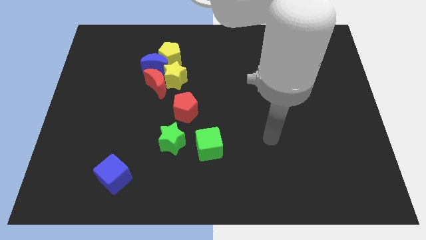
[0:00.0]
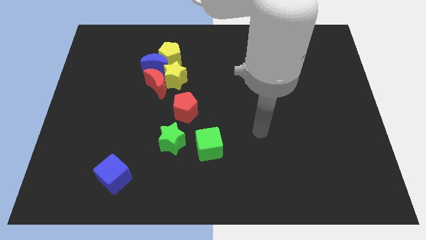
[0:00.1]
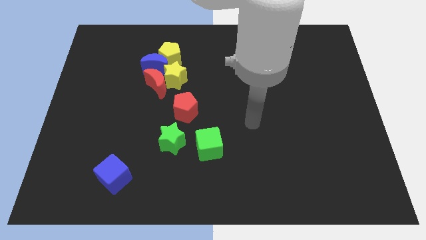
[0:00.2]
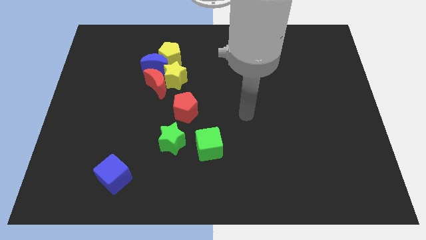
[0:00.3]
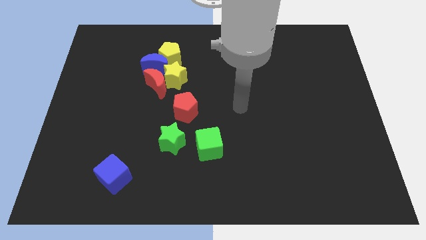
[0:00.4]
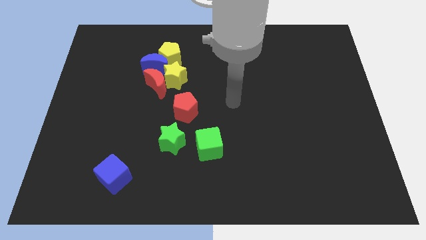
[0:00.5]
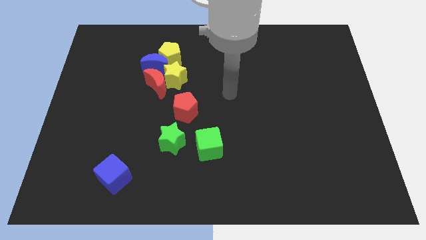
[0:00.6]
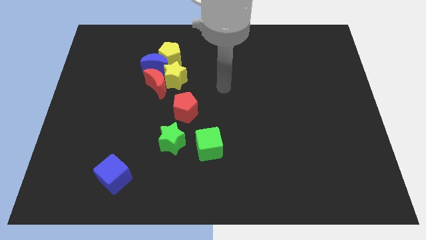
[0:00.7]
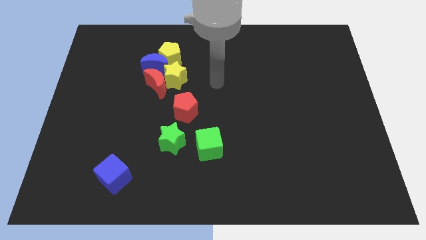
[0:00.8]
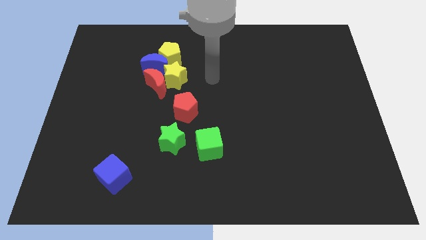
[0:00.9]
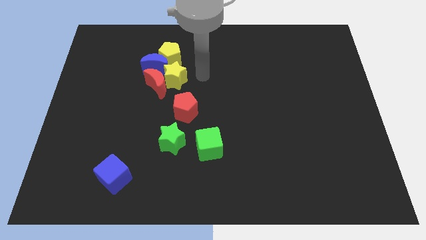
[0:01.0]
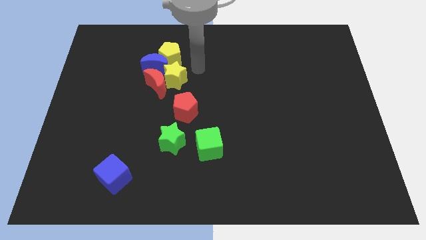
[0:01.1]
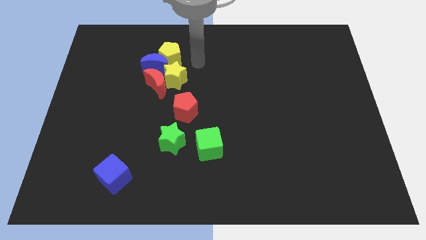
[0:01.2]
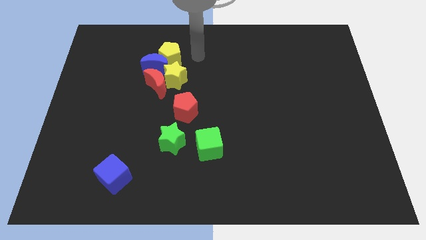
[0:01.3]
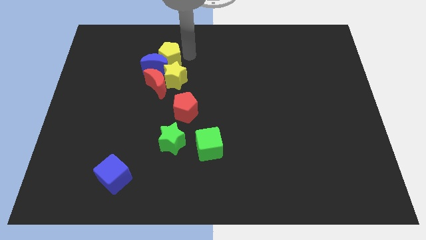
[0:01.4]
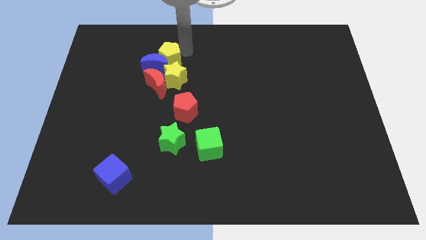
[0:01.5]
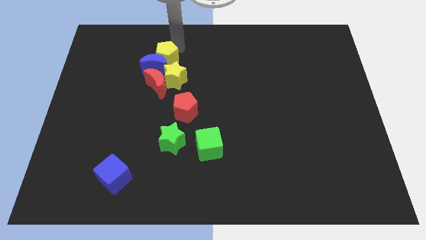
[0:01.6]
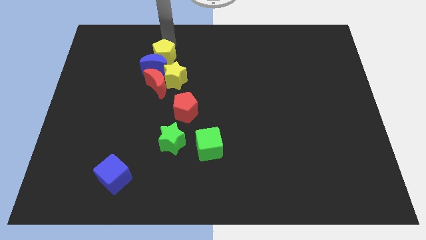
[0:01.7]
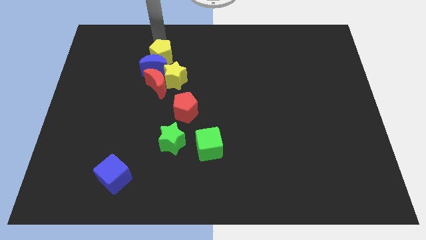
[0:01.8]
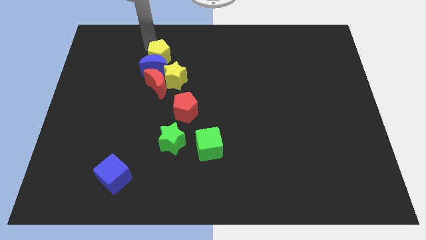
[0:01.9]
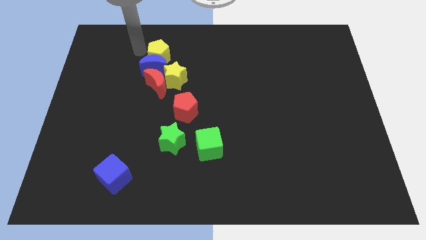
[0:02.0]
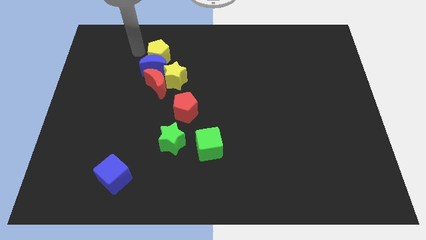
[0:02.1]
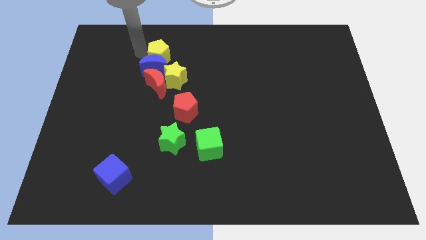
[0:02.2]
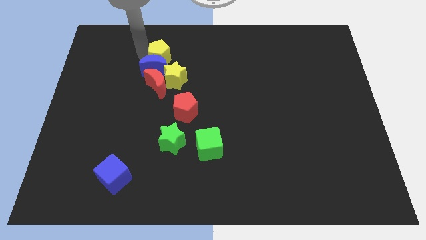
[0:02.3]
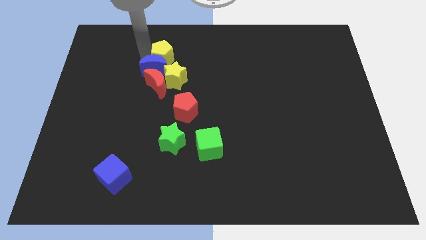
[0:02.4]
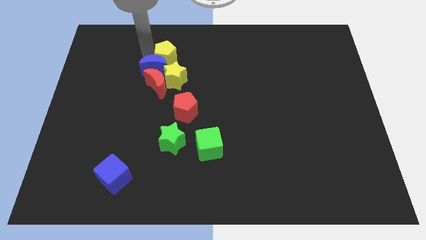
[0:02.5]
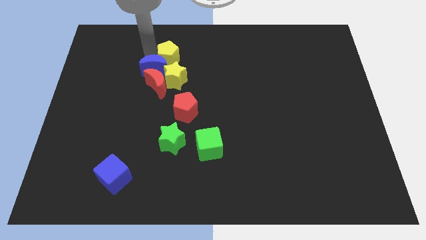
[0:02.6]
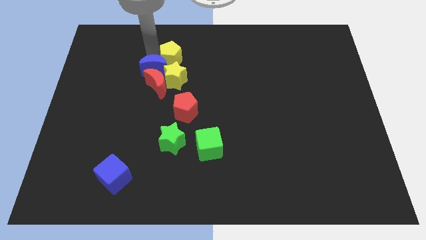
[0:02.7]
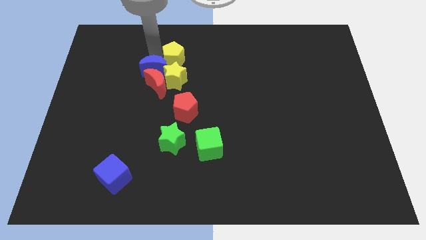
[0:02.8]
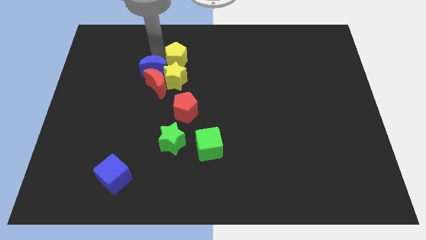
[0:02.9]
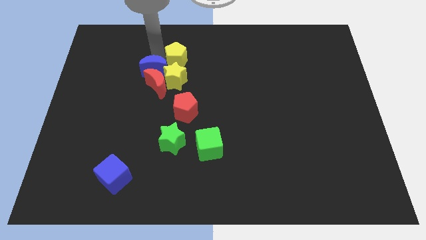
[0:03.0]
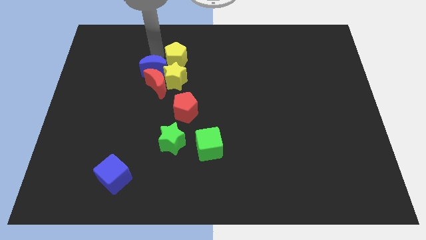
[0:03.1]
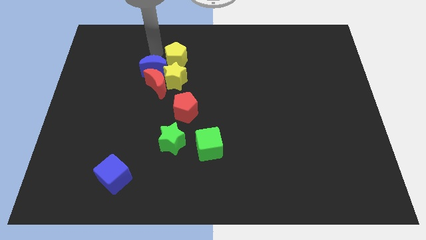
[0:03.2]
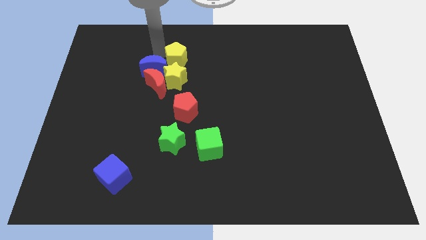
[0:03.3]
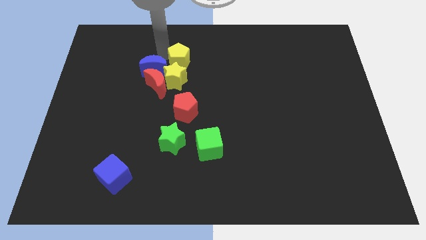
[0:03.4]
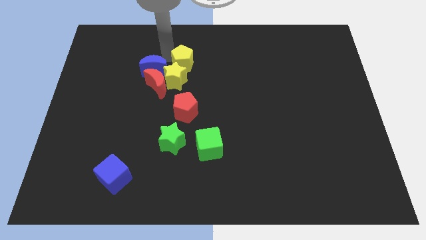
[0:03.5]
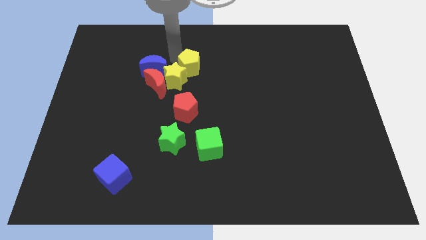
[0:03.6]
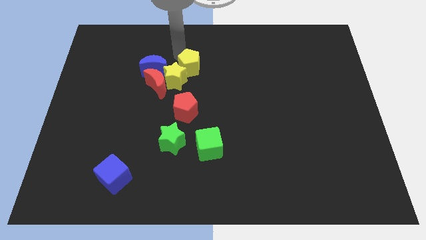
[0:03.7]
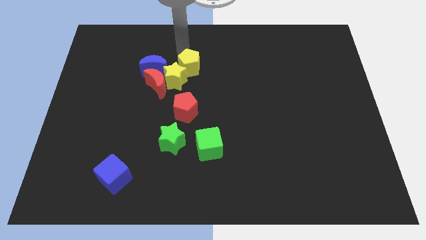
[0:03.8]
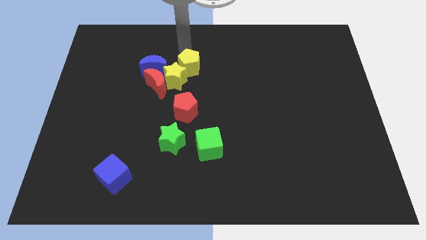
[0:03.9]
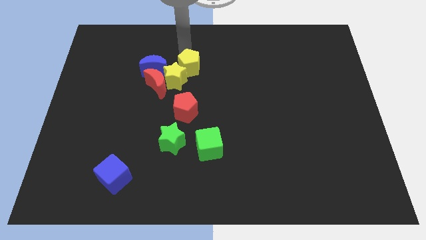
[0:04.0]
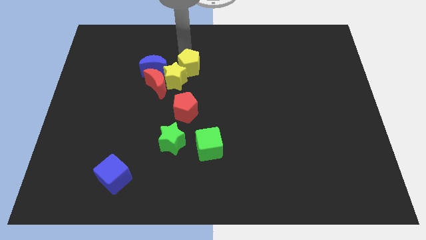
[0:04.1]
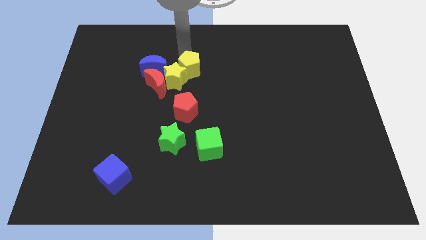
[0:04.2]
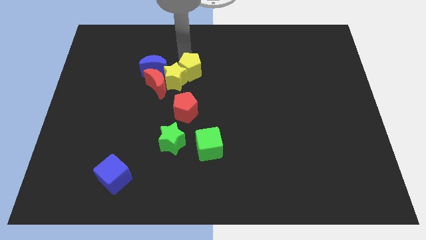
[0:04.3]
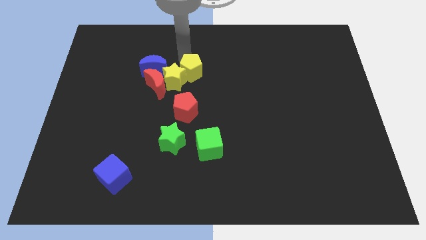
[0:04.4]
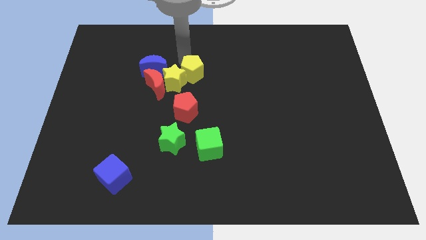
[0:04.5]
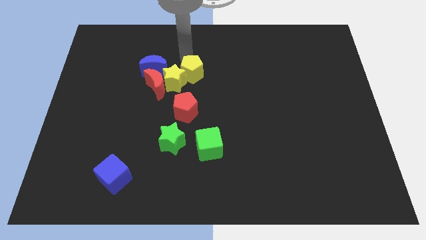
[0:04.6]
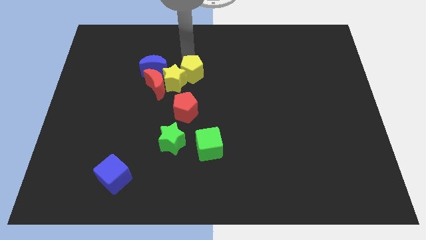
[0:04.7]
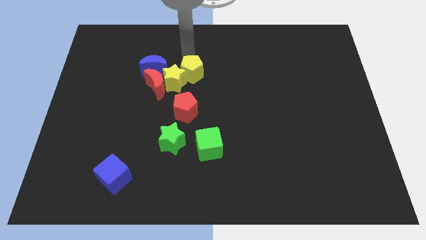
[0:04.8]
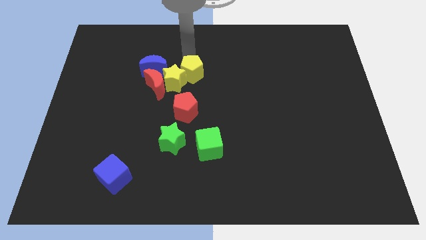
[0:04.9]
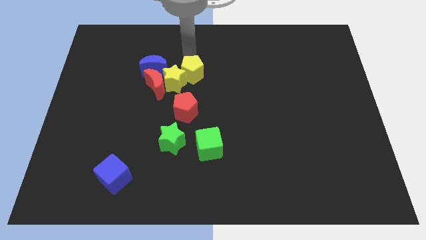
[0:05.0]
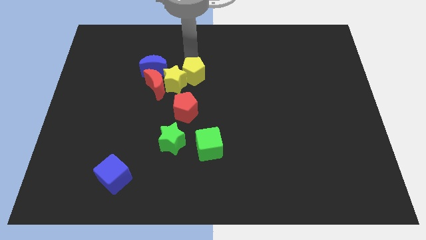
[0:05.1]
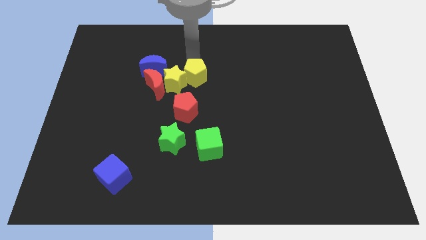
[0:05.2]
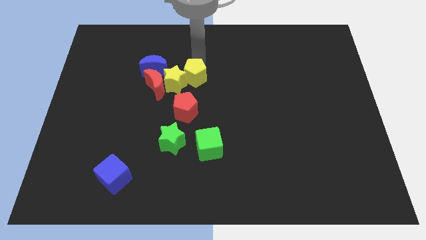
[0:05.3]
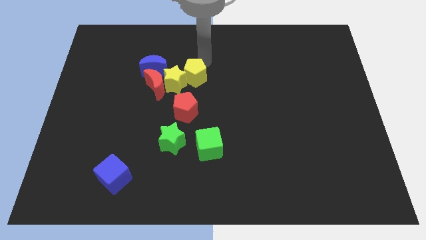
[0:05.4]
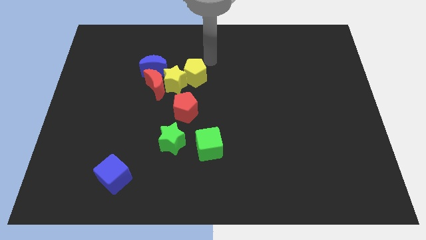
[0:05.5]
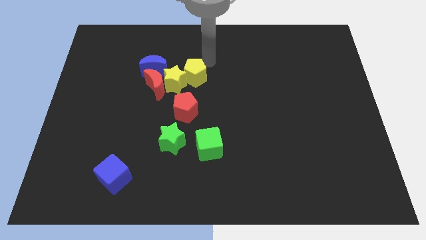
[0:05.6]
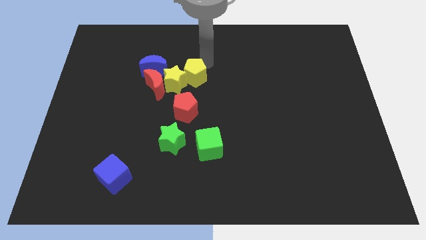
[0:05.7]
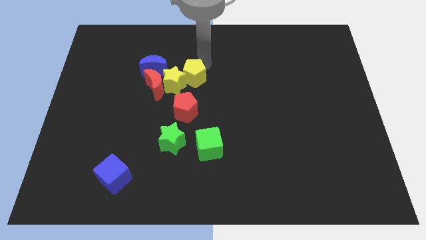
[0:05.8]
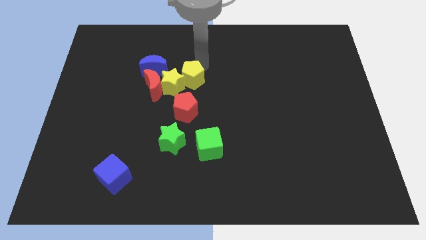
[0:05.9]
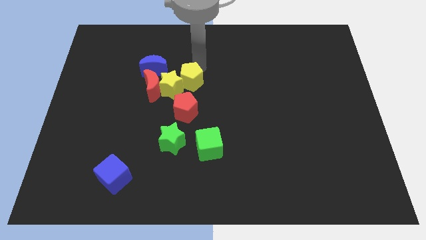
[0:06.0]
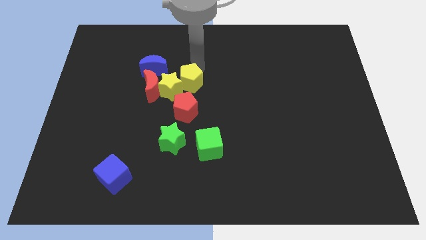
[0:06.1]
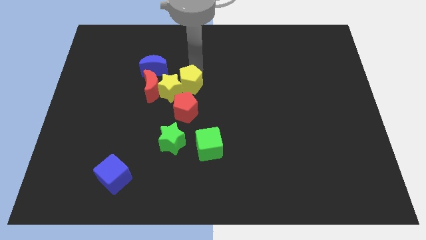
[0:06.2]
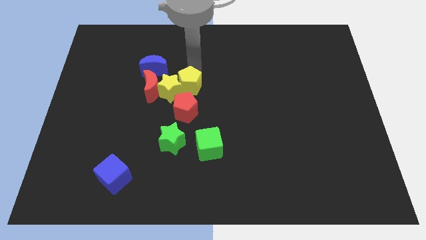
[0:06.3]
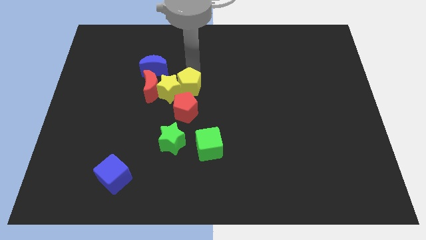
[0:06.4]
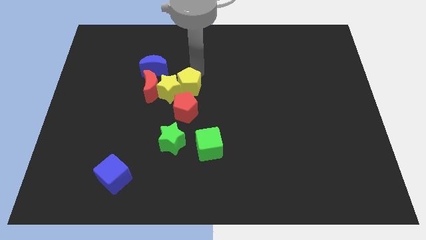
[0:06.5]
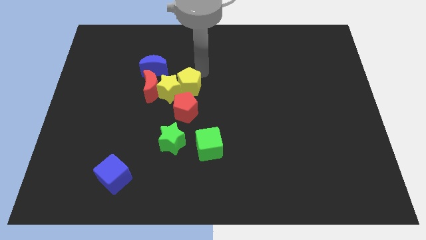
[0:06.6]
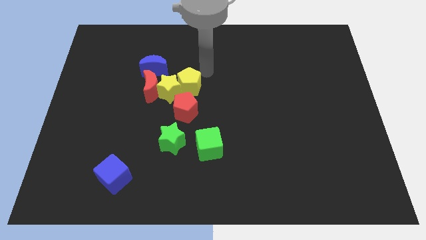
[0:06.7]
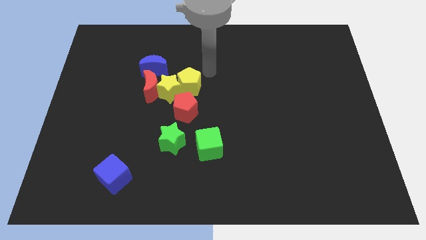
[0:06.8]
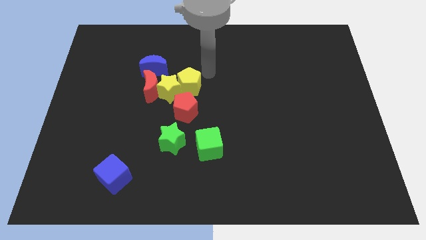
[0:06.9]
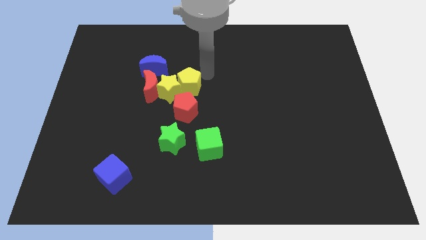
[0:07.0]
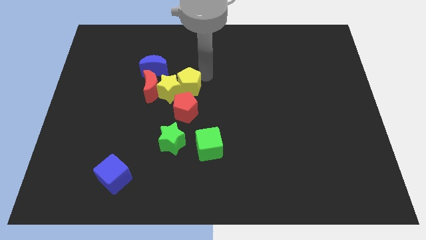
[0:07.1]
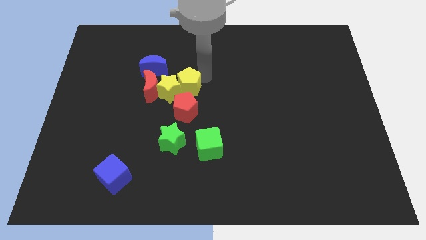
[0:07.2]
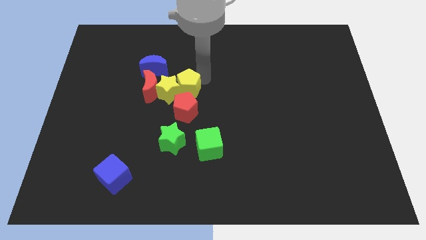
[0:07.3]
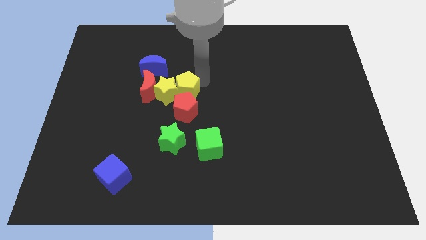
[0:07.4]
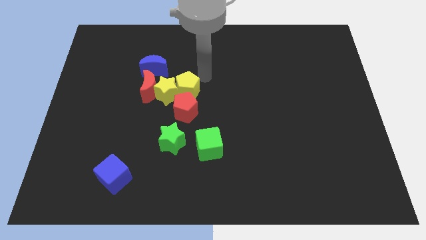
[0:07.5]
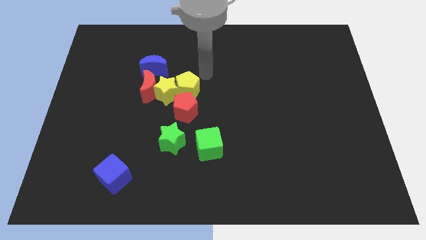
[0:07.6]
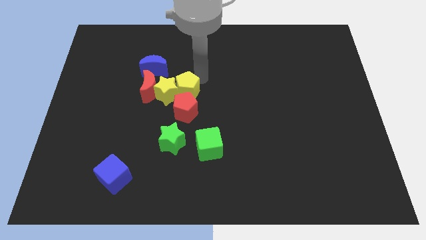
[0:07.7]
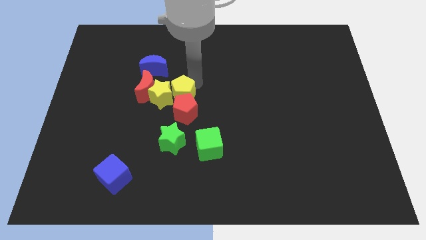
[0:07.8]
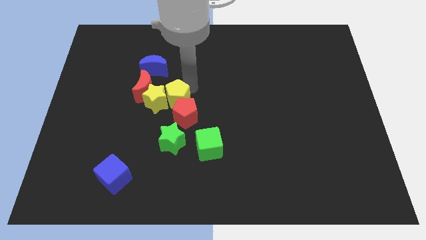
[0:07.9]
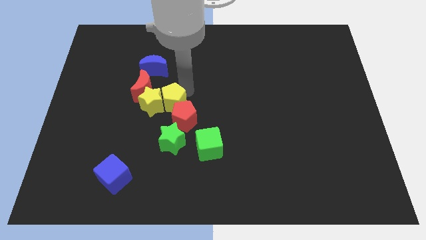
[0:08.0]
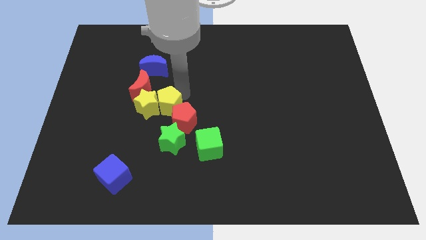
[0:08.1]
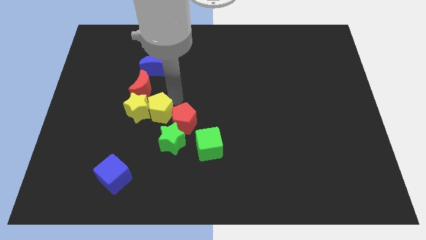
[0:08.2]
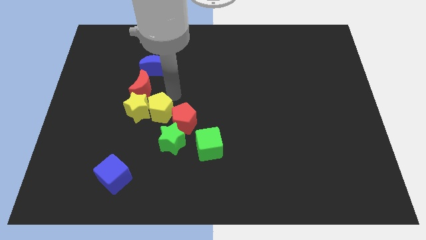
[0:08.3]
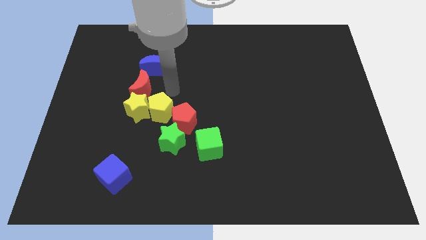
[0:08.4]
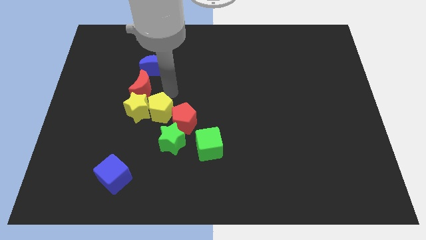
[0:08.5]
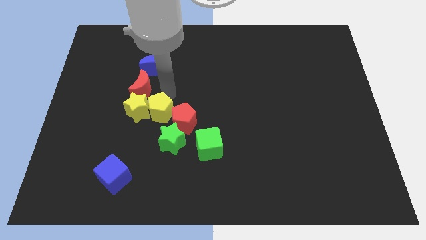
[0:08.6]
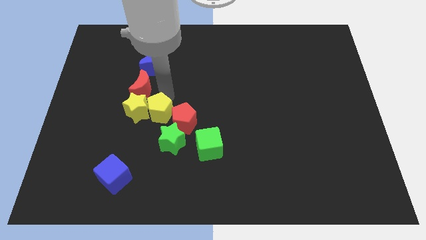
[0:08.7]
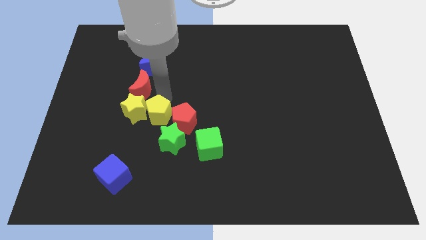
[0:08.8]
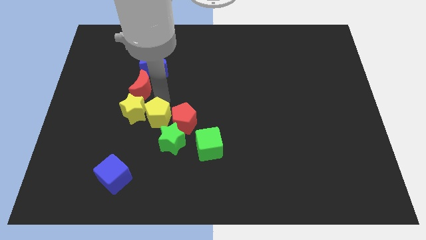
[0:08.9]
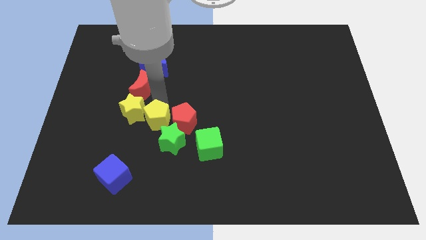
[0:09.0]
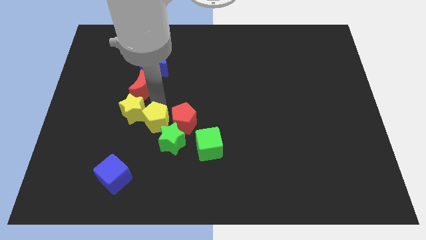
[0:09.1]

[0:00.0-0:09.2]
move the yellow pentagon downwards
